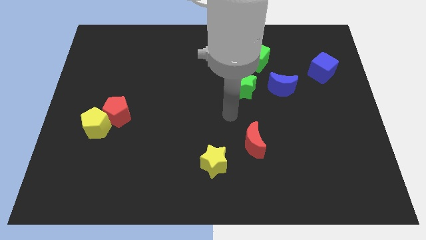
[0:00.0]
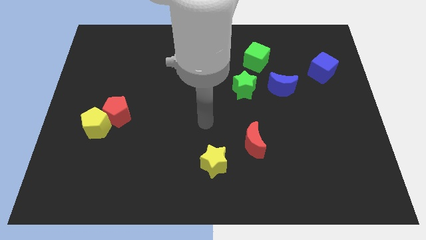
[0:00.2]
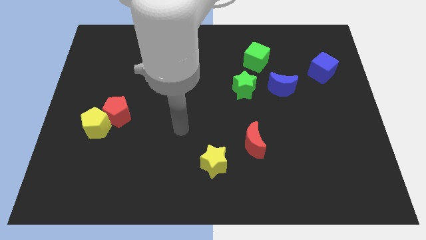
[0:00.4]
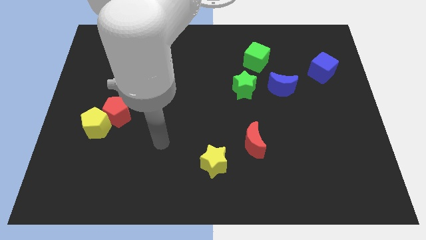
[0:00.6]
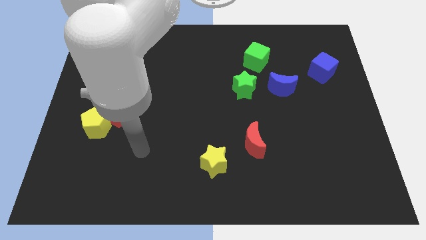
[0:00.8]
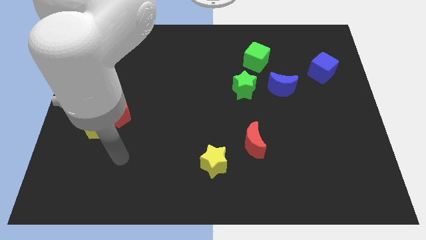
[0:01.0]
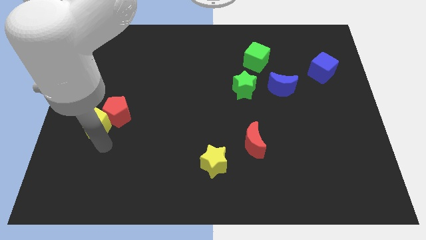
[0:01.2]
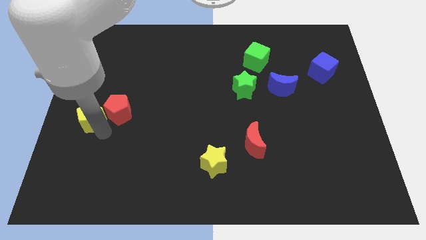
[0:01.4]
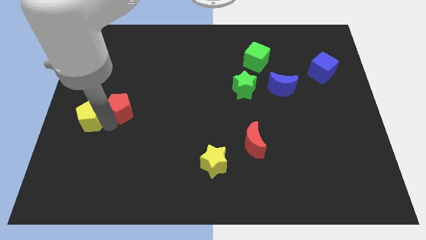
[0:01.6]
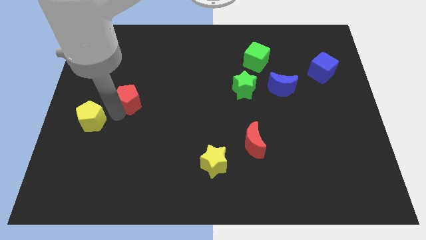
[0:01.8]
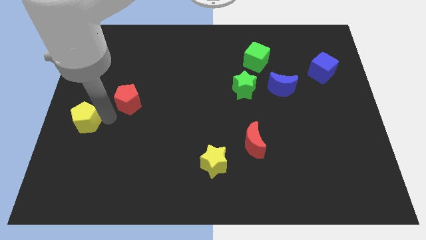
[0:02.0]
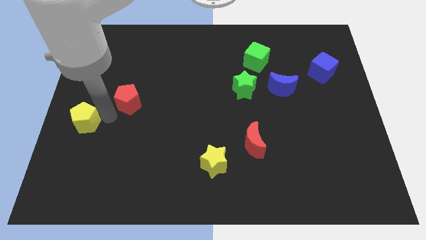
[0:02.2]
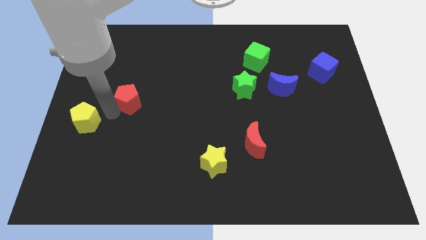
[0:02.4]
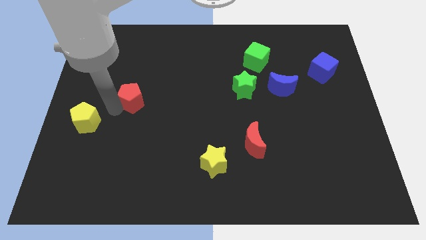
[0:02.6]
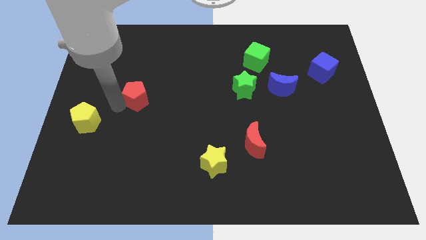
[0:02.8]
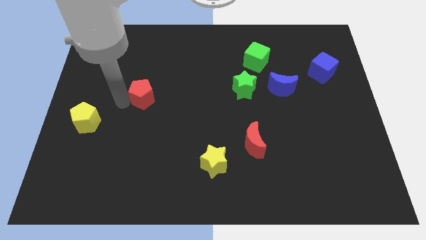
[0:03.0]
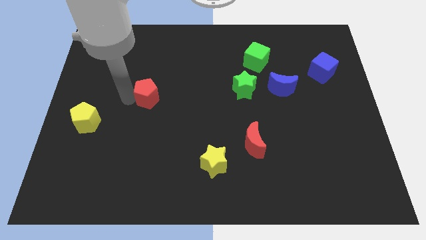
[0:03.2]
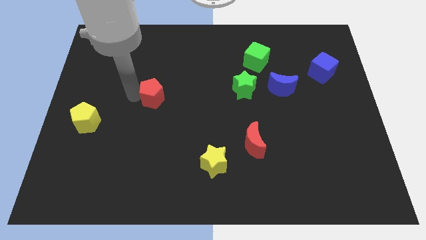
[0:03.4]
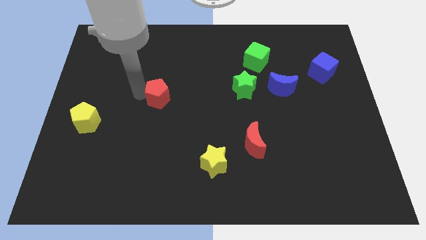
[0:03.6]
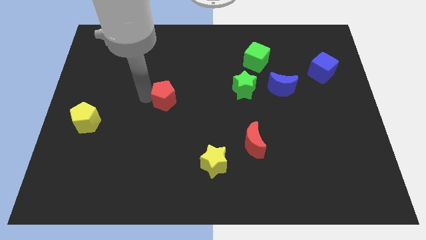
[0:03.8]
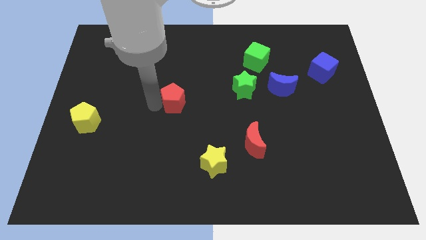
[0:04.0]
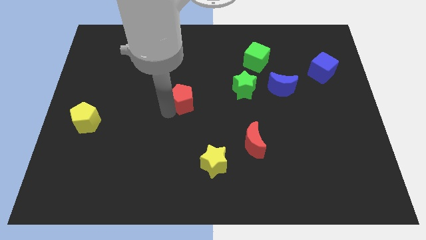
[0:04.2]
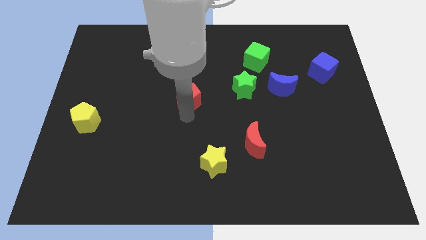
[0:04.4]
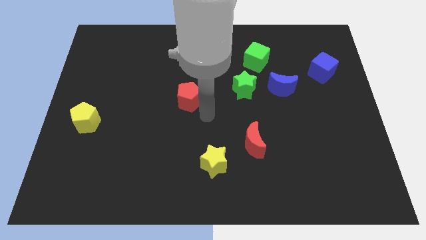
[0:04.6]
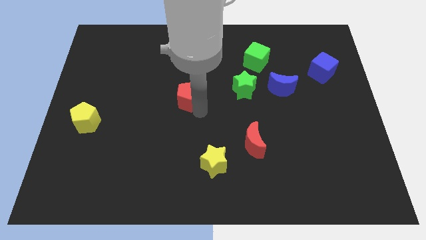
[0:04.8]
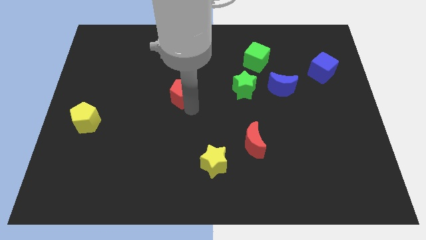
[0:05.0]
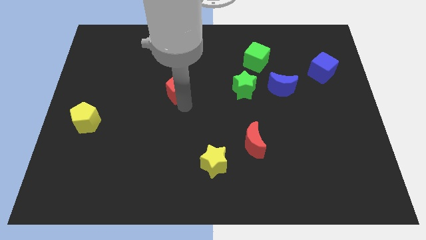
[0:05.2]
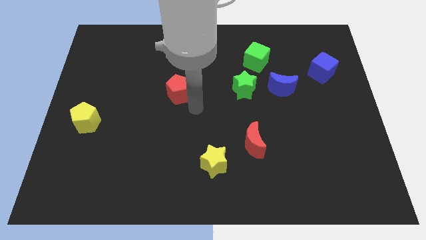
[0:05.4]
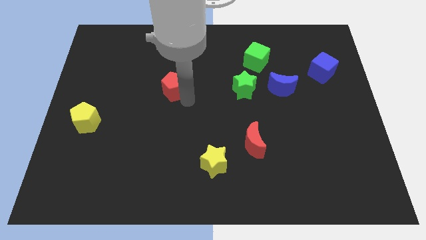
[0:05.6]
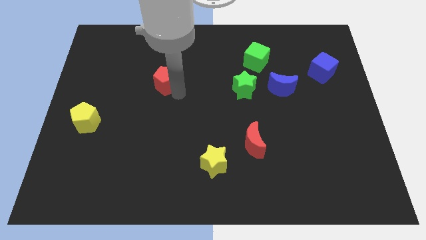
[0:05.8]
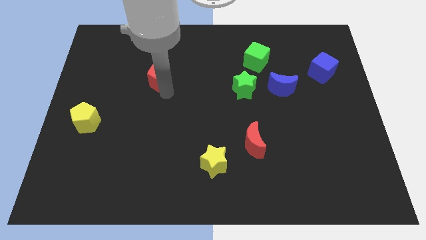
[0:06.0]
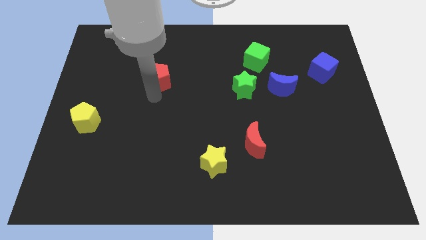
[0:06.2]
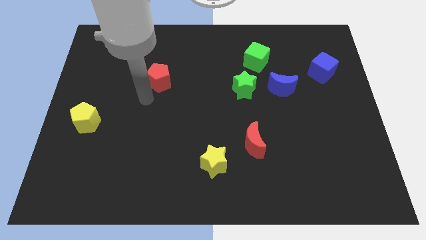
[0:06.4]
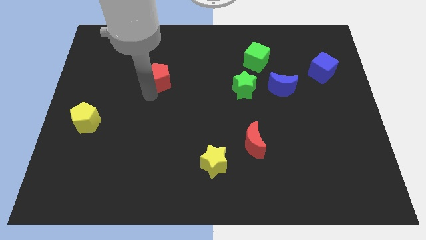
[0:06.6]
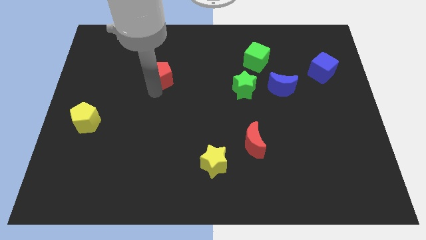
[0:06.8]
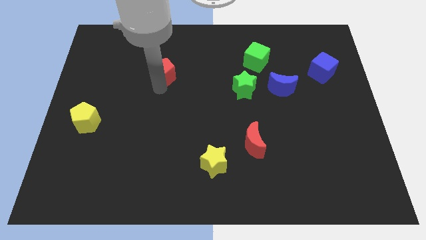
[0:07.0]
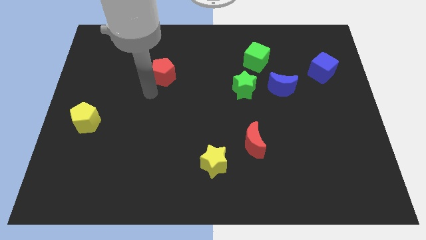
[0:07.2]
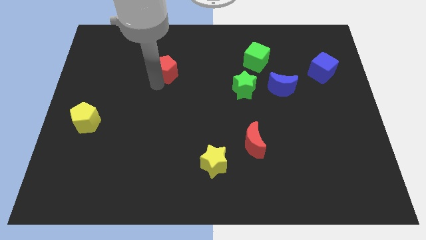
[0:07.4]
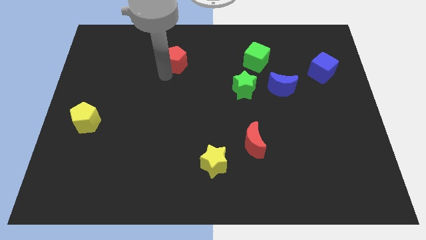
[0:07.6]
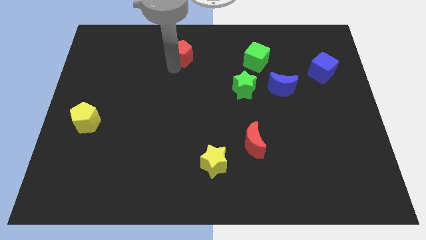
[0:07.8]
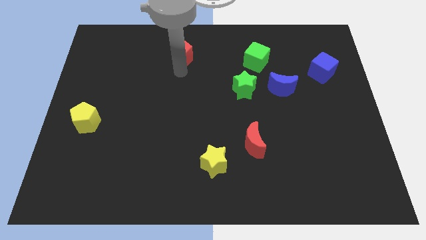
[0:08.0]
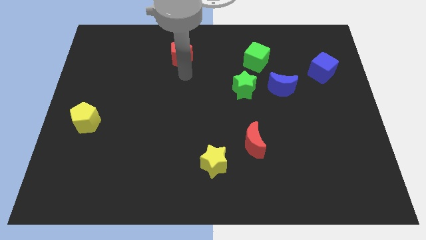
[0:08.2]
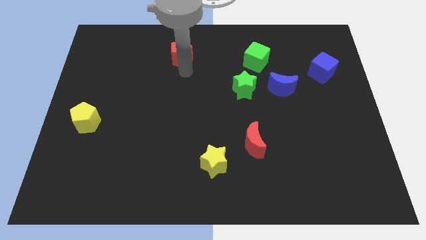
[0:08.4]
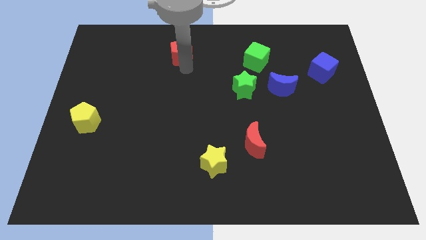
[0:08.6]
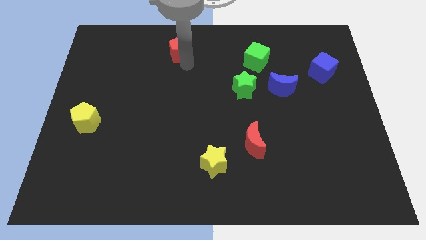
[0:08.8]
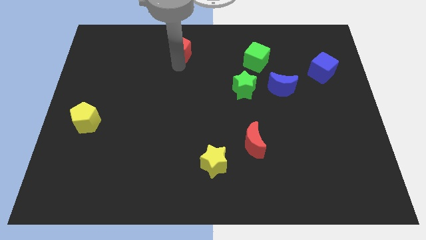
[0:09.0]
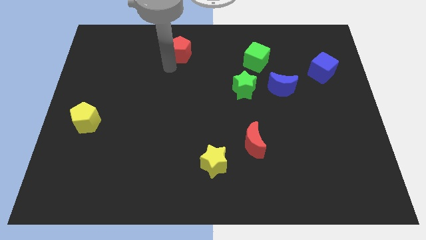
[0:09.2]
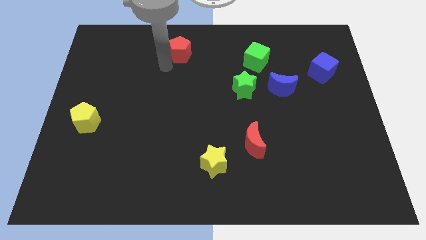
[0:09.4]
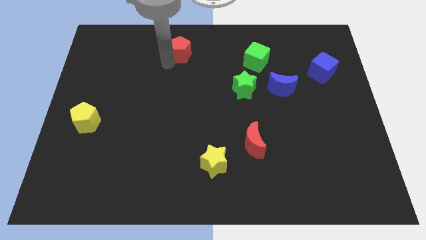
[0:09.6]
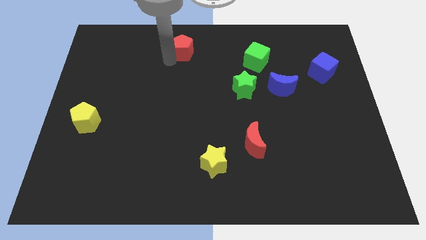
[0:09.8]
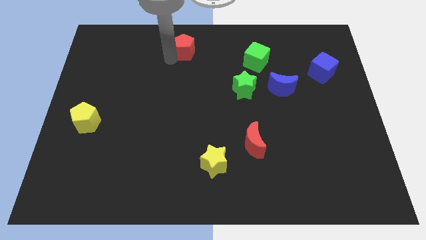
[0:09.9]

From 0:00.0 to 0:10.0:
put the red pentagon to the top side

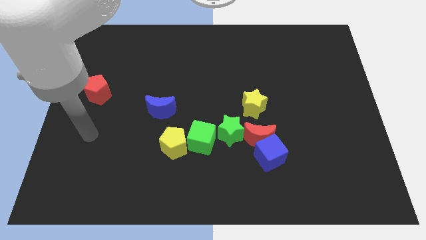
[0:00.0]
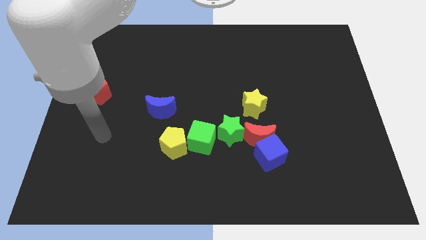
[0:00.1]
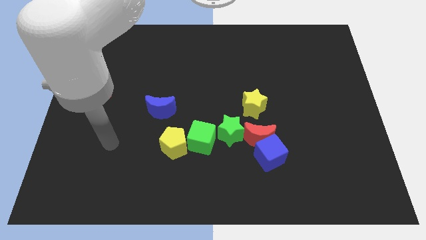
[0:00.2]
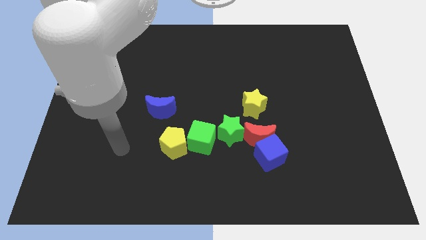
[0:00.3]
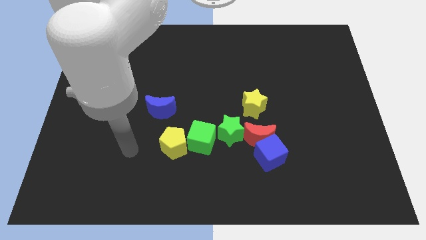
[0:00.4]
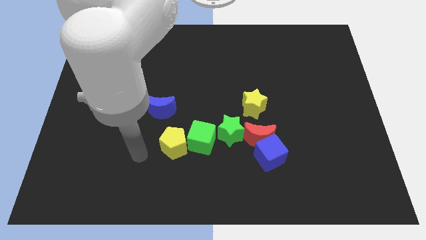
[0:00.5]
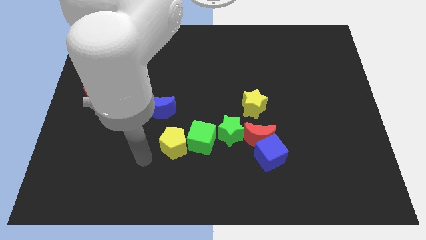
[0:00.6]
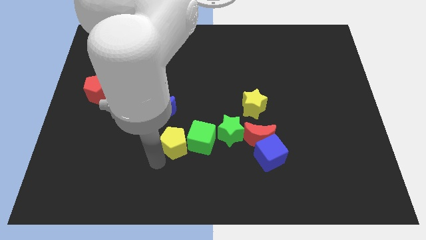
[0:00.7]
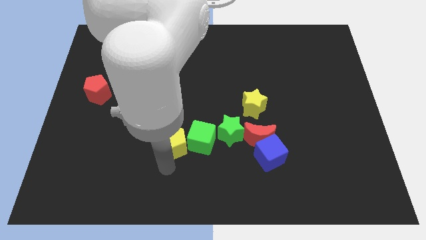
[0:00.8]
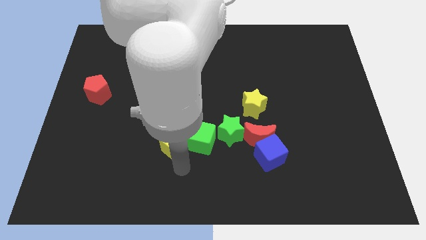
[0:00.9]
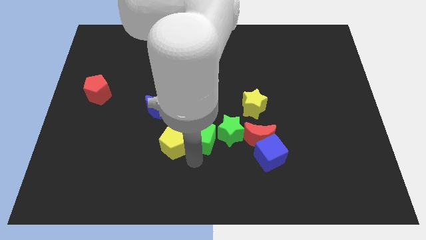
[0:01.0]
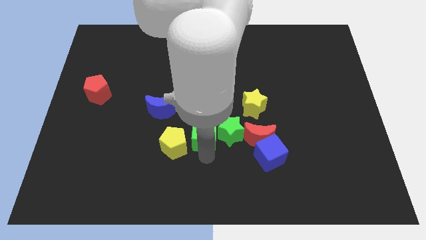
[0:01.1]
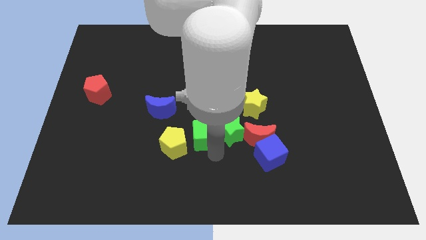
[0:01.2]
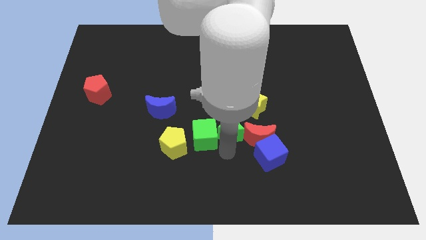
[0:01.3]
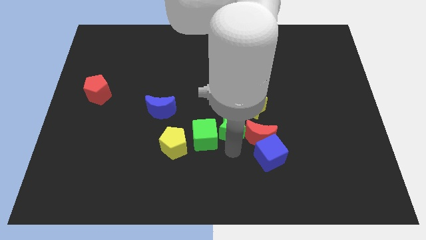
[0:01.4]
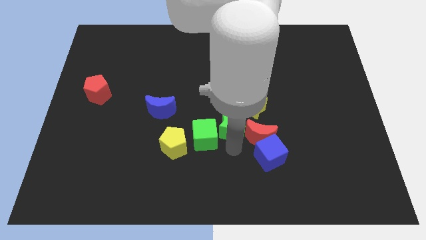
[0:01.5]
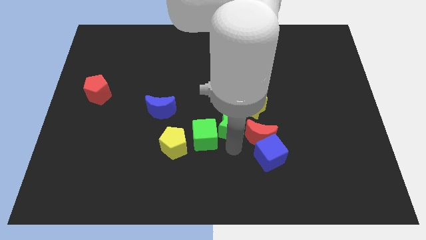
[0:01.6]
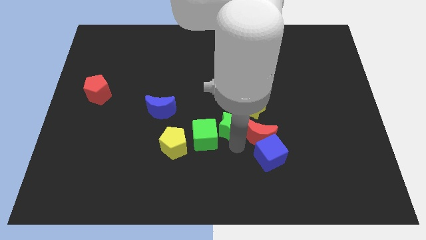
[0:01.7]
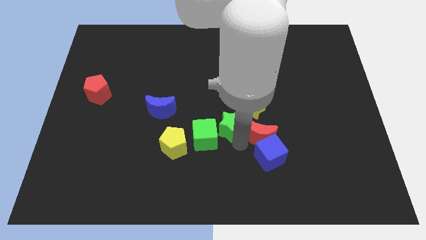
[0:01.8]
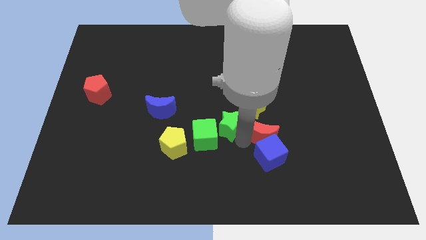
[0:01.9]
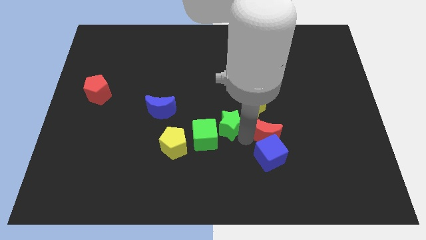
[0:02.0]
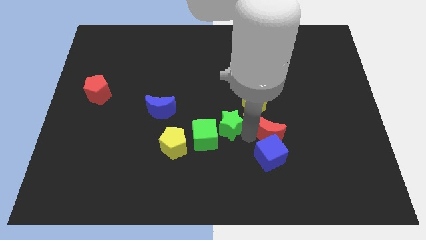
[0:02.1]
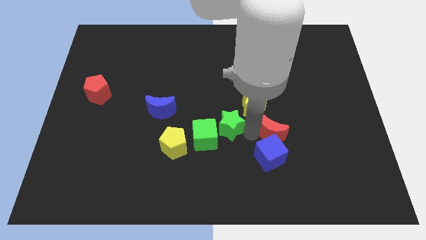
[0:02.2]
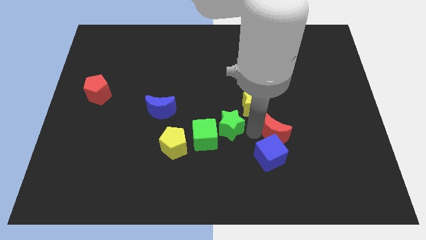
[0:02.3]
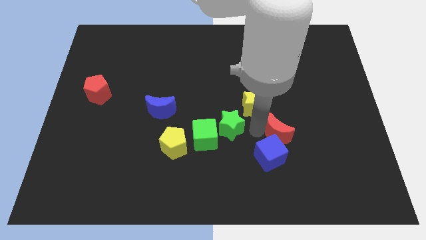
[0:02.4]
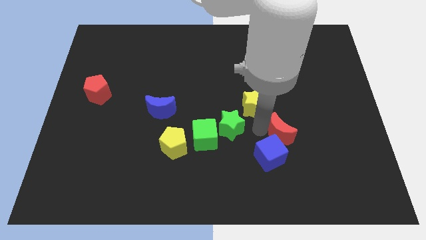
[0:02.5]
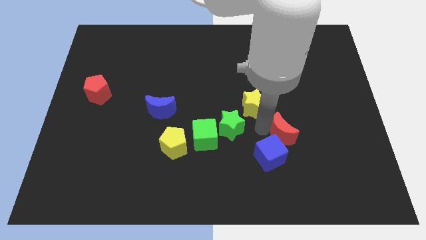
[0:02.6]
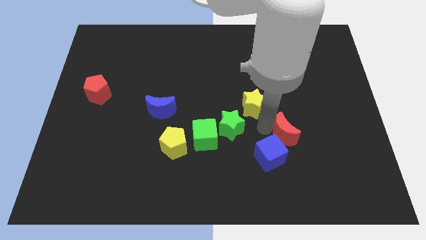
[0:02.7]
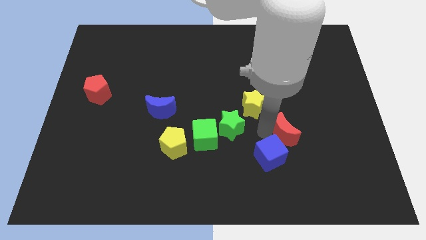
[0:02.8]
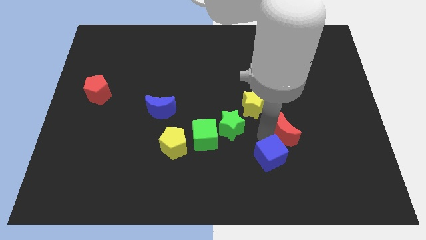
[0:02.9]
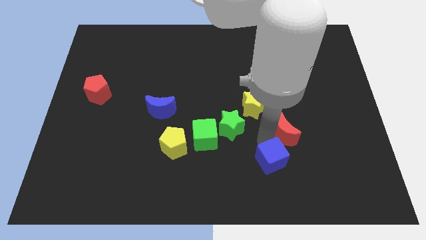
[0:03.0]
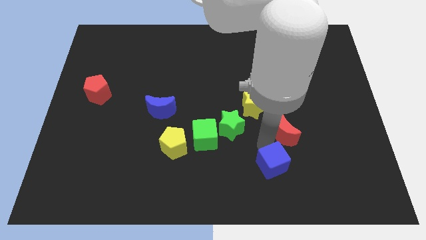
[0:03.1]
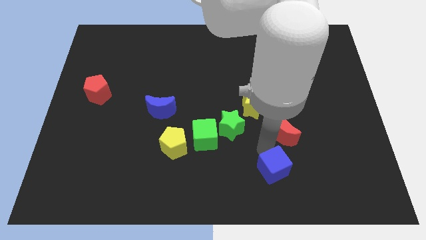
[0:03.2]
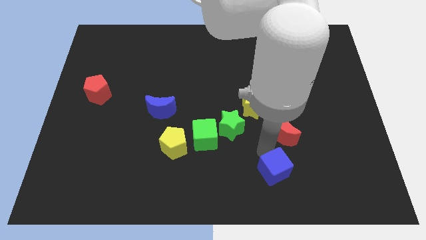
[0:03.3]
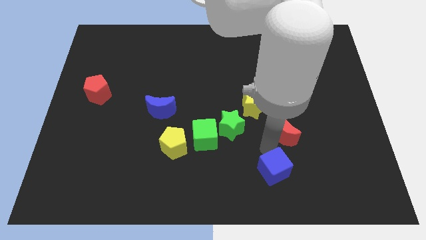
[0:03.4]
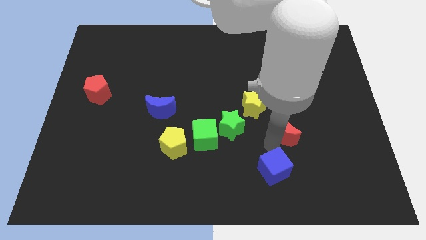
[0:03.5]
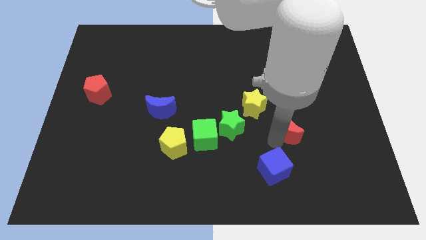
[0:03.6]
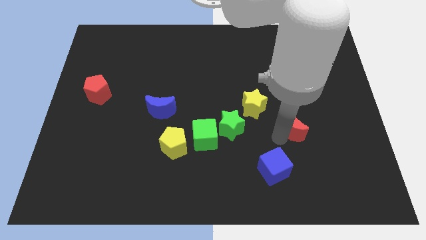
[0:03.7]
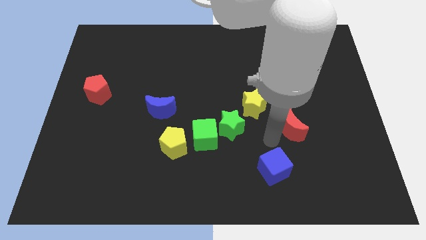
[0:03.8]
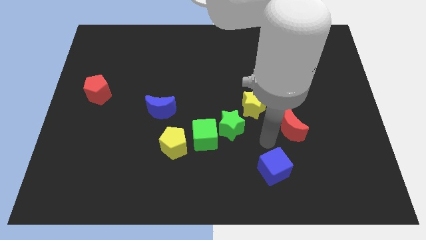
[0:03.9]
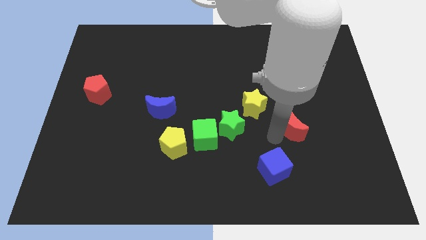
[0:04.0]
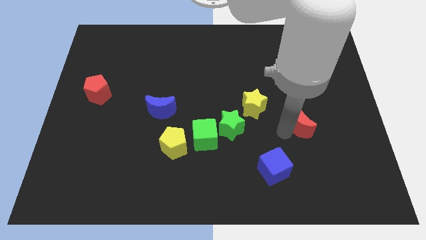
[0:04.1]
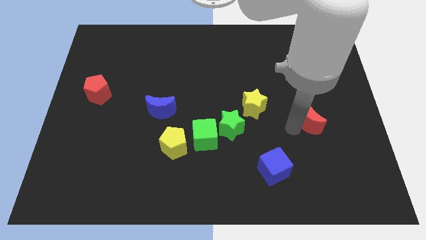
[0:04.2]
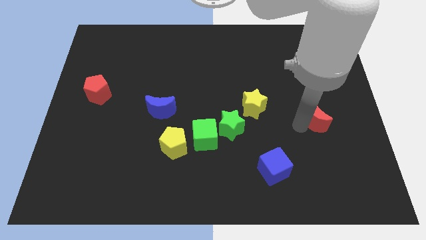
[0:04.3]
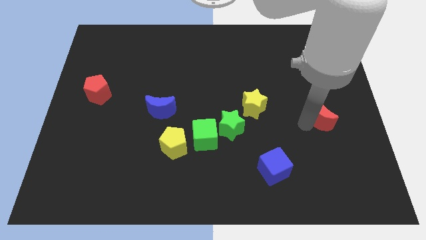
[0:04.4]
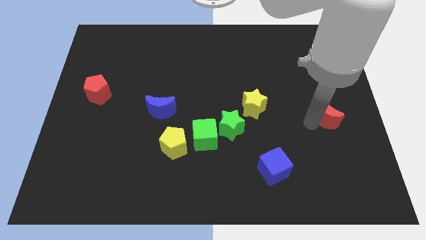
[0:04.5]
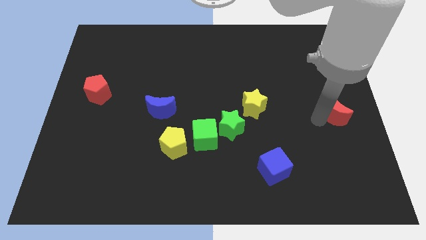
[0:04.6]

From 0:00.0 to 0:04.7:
push the red moon to the right side of the board
